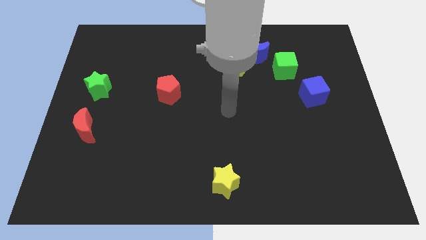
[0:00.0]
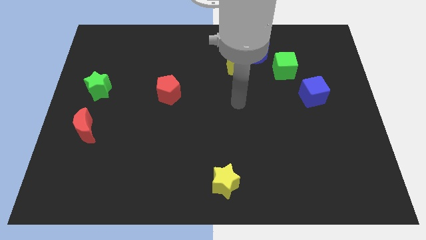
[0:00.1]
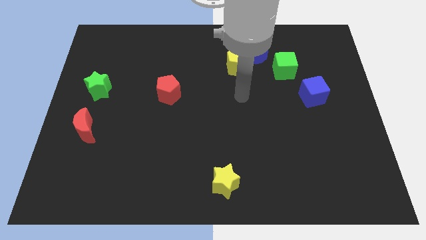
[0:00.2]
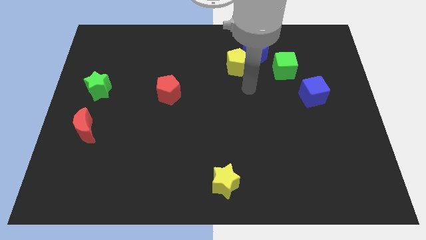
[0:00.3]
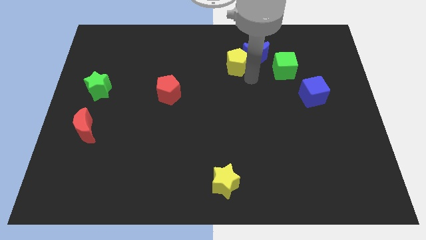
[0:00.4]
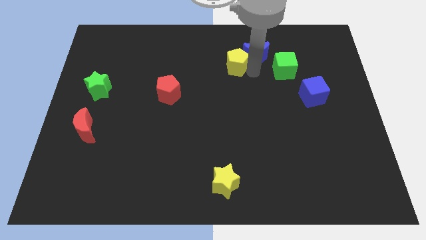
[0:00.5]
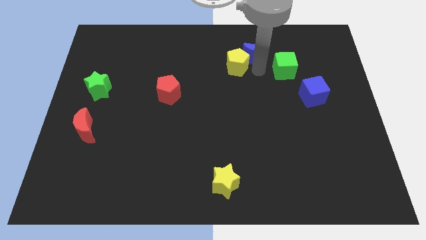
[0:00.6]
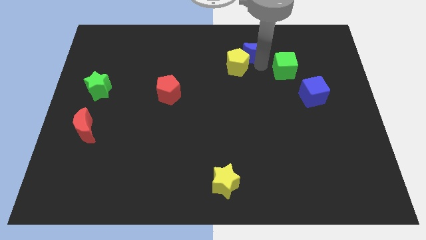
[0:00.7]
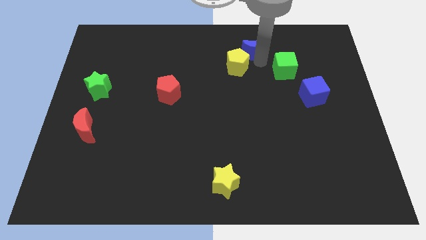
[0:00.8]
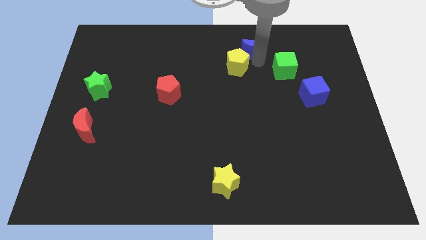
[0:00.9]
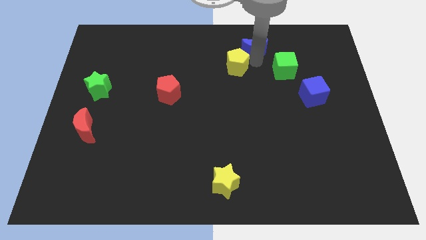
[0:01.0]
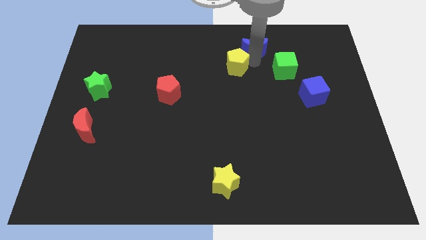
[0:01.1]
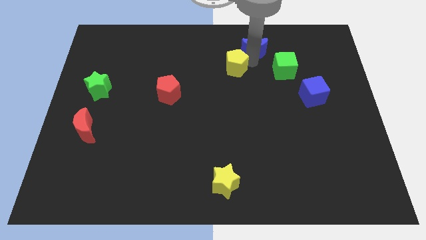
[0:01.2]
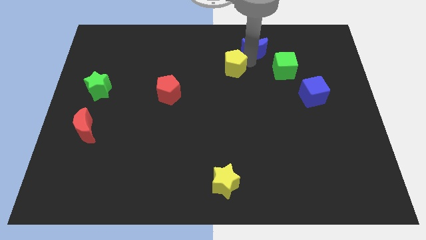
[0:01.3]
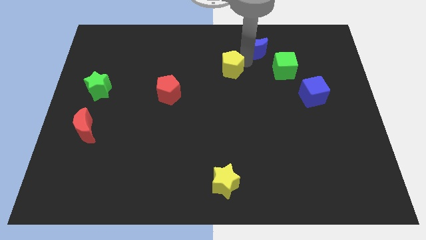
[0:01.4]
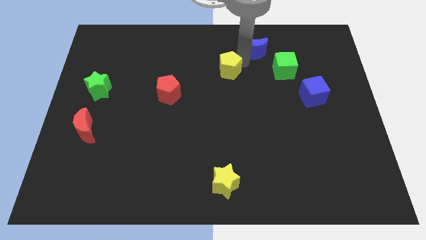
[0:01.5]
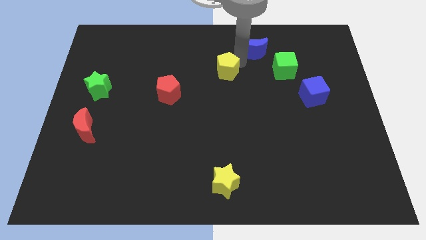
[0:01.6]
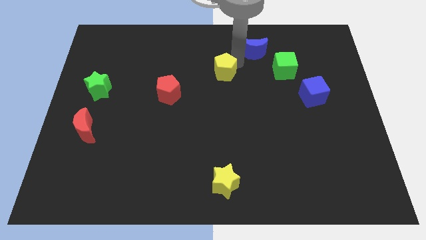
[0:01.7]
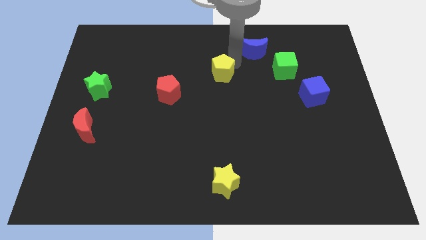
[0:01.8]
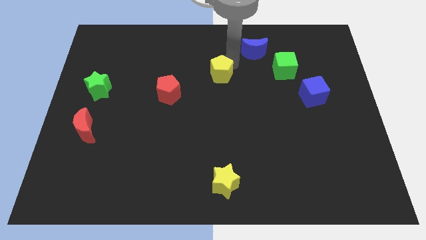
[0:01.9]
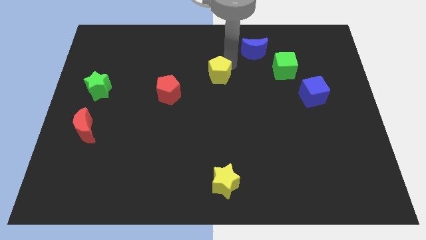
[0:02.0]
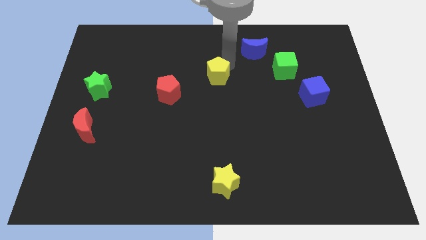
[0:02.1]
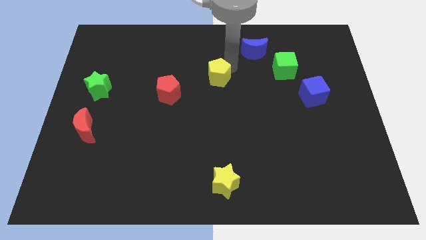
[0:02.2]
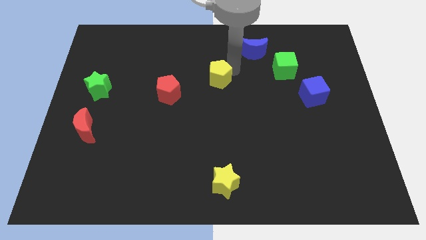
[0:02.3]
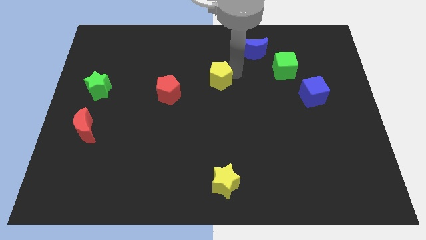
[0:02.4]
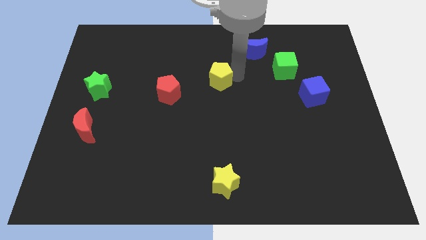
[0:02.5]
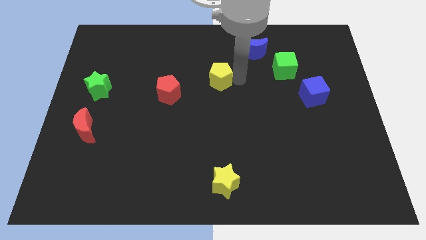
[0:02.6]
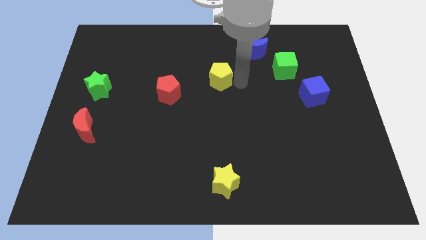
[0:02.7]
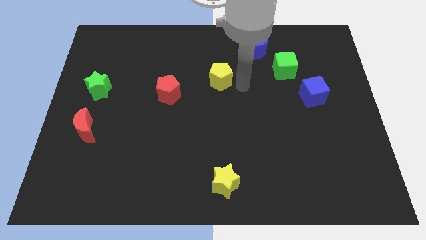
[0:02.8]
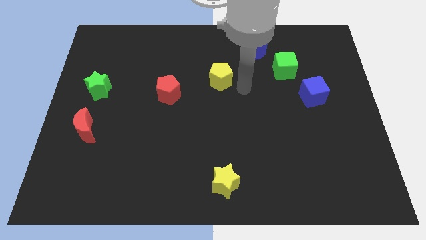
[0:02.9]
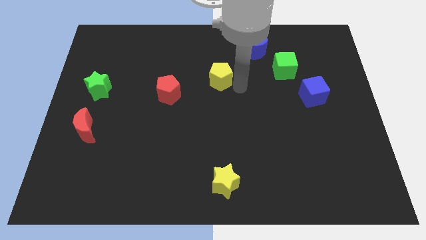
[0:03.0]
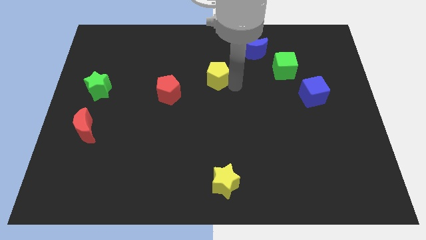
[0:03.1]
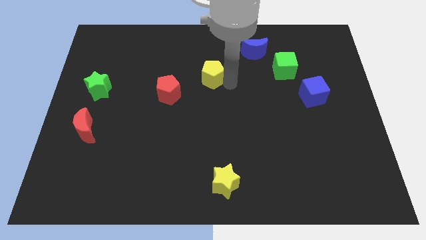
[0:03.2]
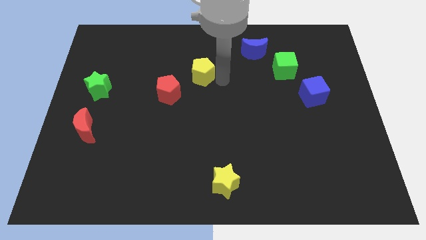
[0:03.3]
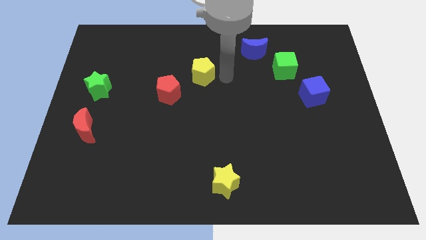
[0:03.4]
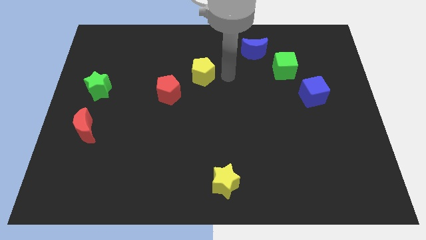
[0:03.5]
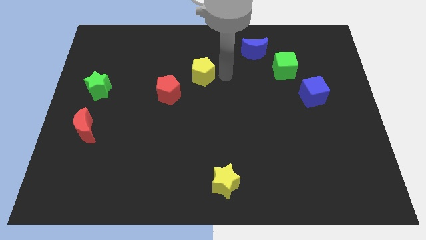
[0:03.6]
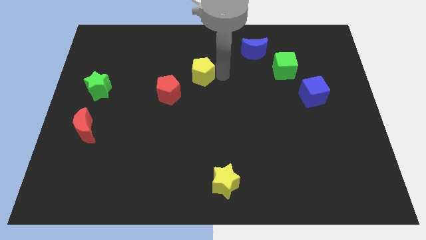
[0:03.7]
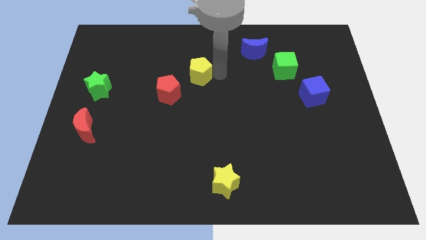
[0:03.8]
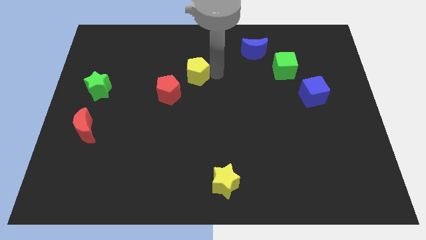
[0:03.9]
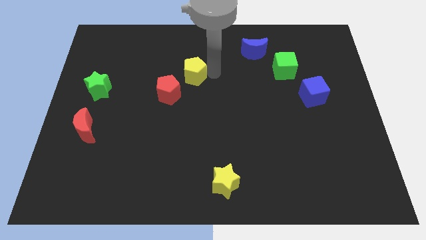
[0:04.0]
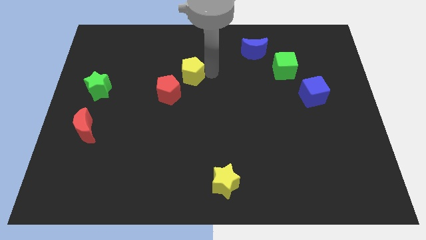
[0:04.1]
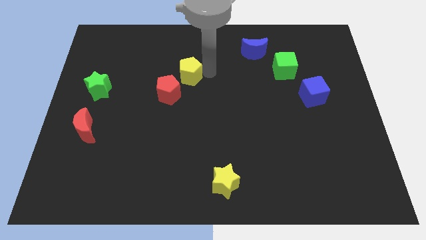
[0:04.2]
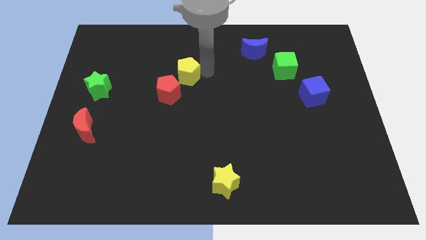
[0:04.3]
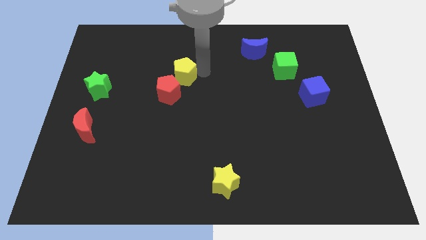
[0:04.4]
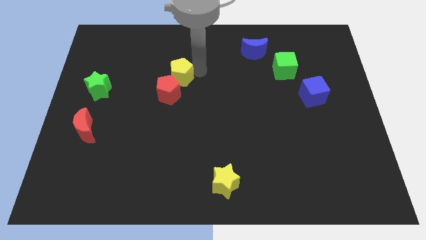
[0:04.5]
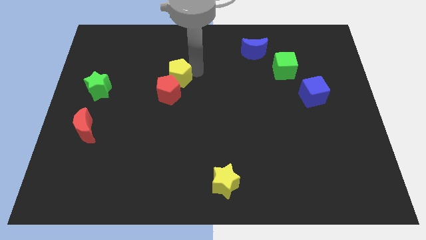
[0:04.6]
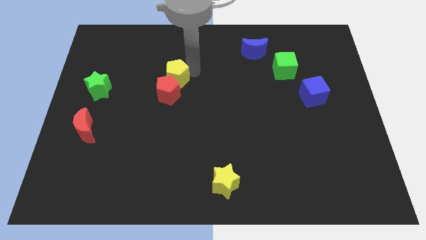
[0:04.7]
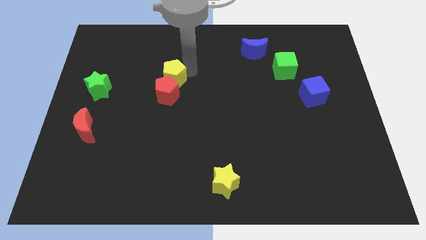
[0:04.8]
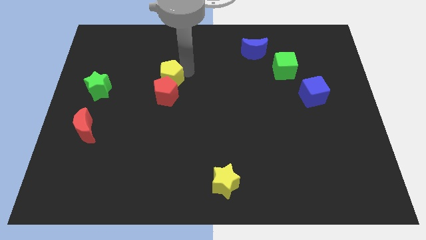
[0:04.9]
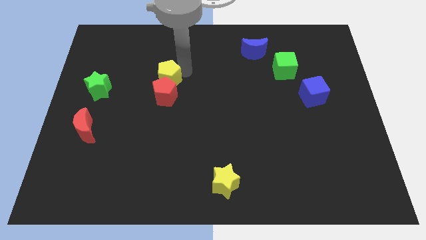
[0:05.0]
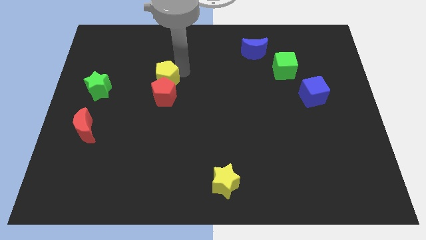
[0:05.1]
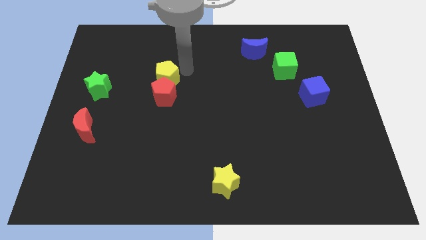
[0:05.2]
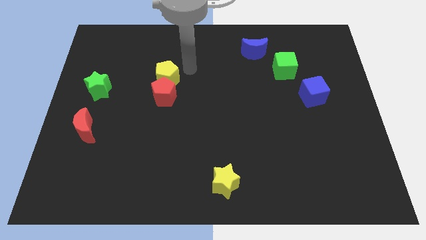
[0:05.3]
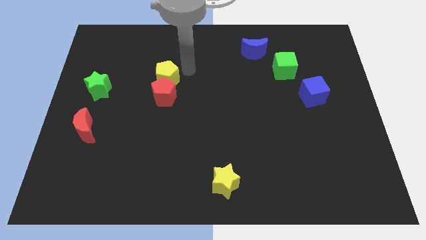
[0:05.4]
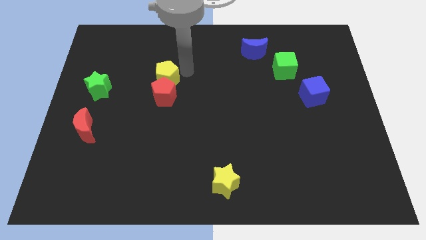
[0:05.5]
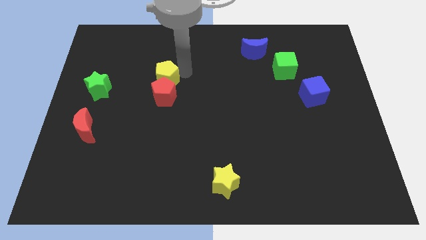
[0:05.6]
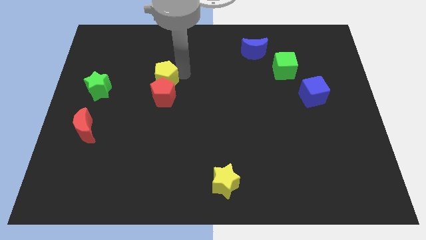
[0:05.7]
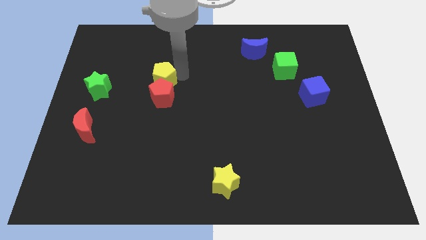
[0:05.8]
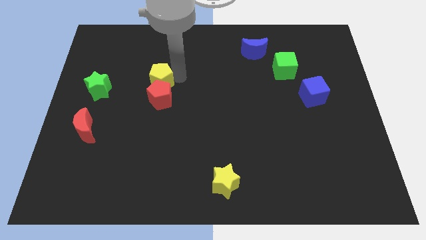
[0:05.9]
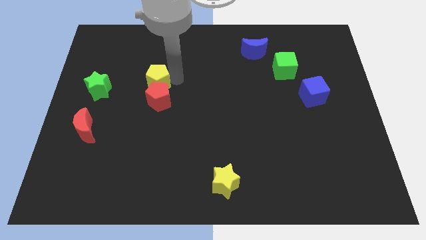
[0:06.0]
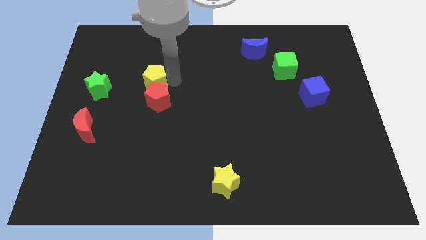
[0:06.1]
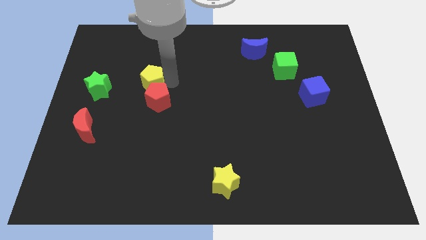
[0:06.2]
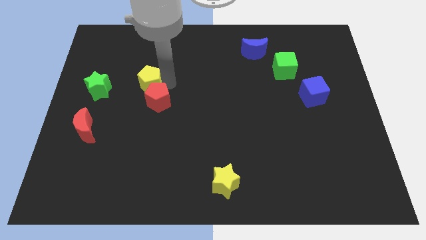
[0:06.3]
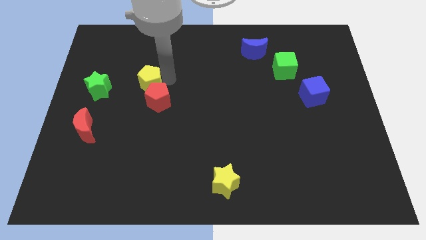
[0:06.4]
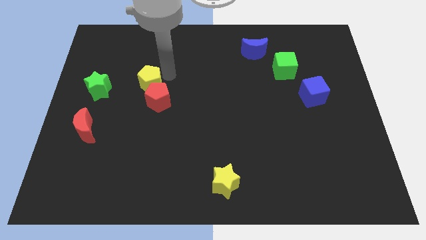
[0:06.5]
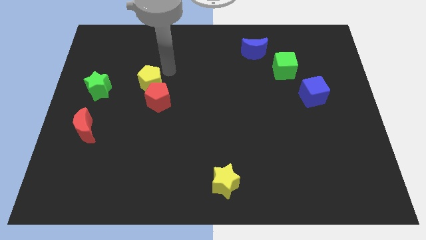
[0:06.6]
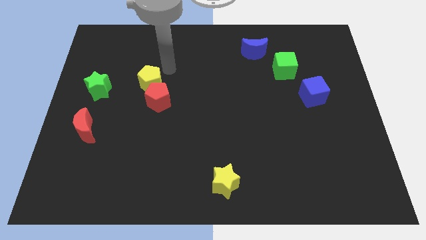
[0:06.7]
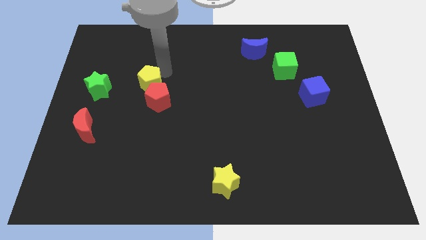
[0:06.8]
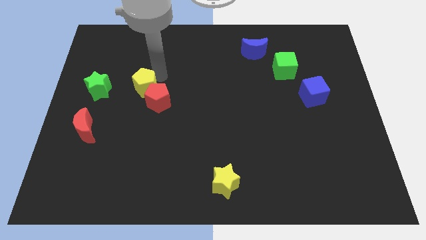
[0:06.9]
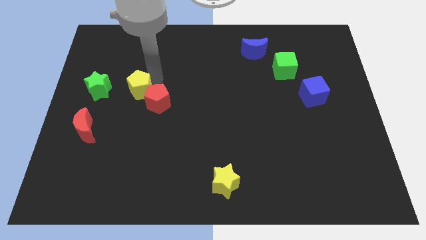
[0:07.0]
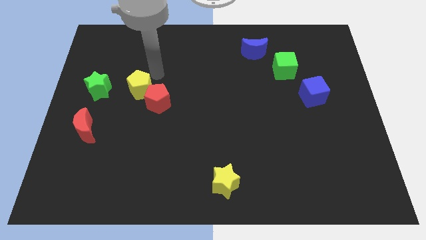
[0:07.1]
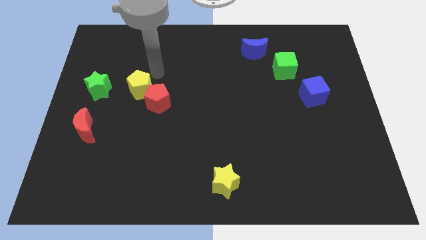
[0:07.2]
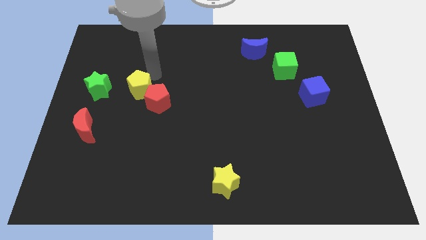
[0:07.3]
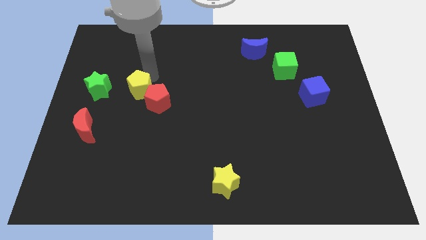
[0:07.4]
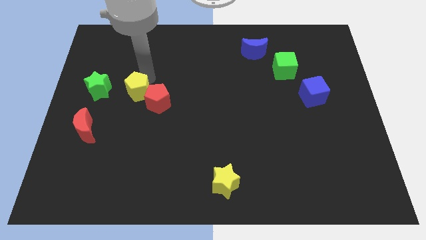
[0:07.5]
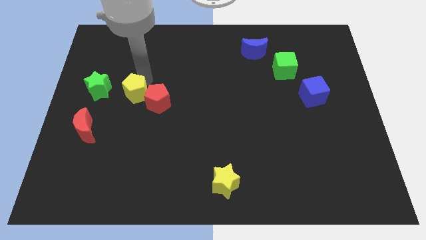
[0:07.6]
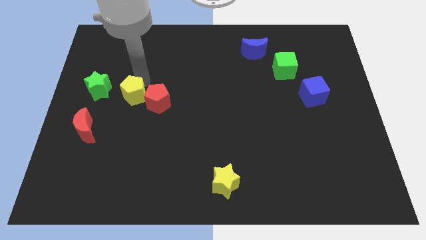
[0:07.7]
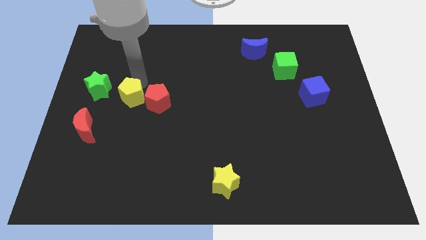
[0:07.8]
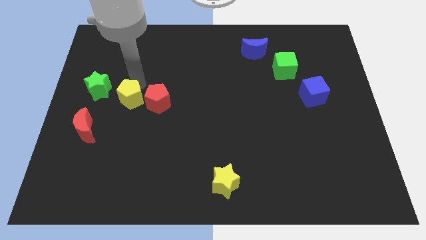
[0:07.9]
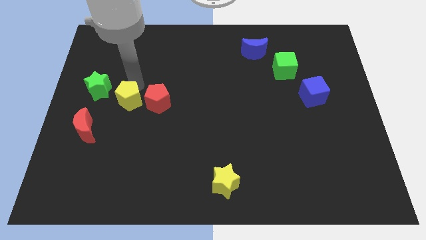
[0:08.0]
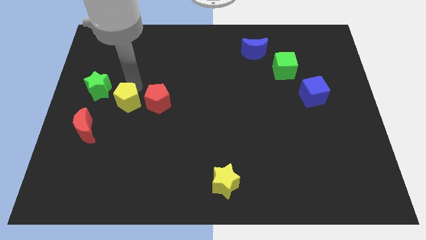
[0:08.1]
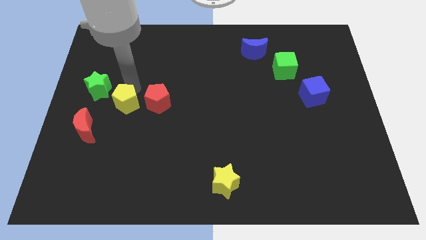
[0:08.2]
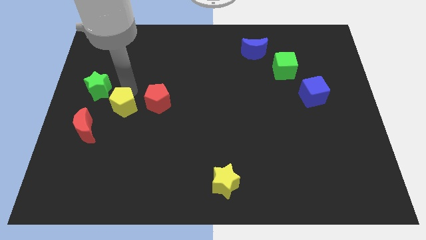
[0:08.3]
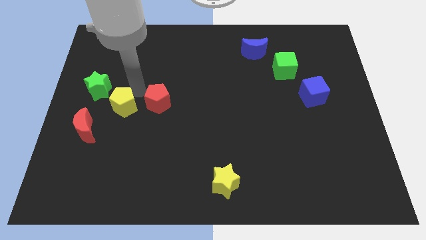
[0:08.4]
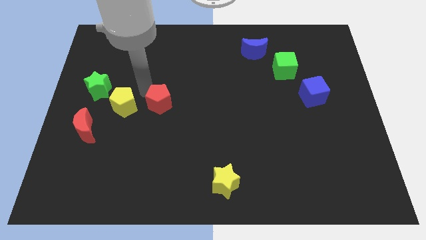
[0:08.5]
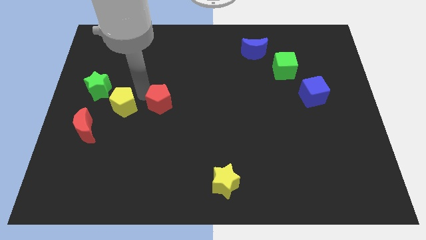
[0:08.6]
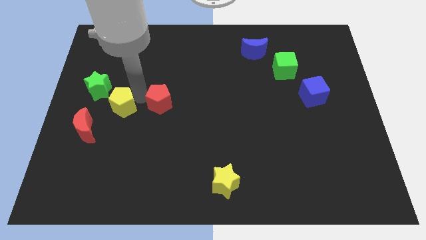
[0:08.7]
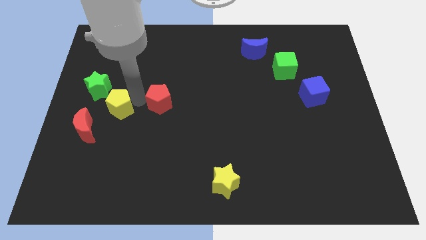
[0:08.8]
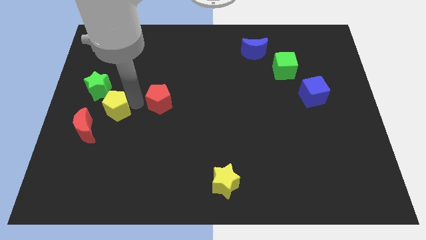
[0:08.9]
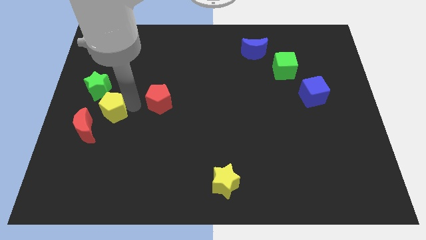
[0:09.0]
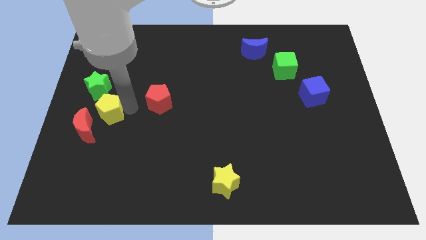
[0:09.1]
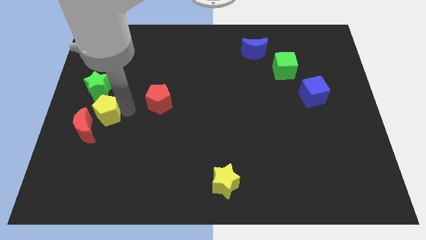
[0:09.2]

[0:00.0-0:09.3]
move the yellow pentagon next to the red moon
